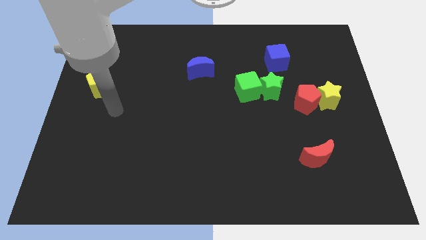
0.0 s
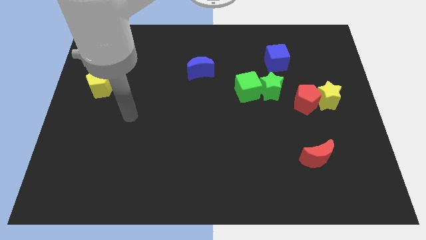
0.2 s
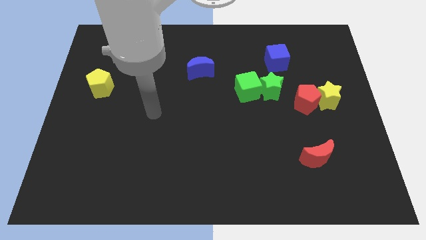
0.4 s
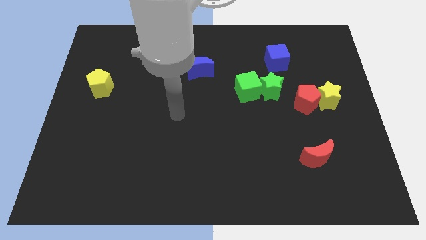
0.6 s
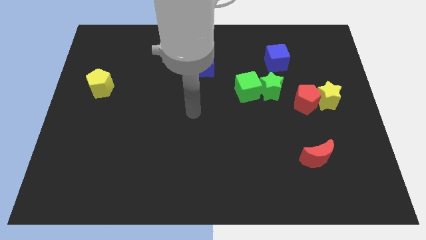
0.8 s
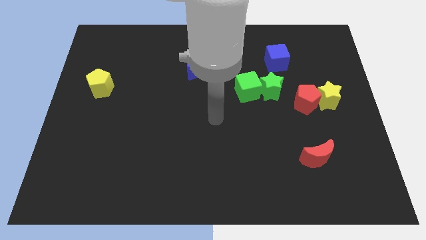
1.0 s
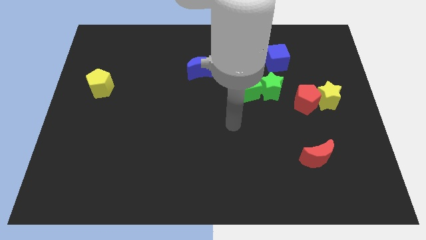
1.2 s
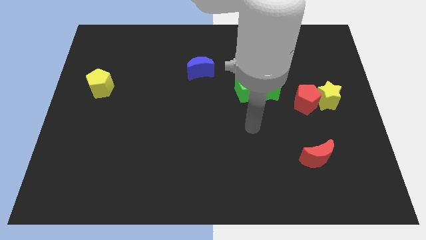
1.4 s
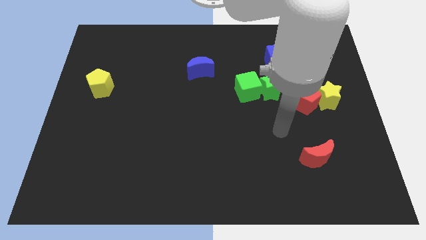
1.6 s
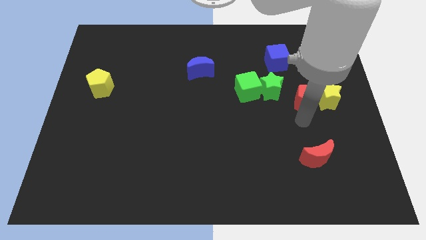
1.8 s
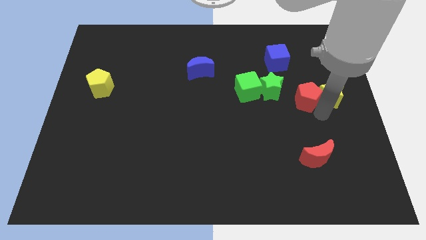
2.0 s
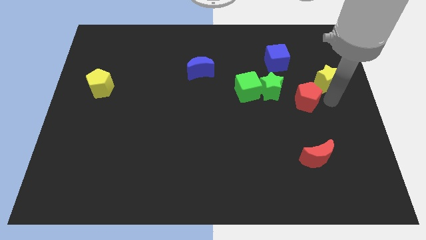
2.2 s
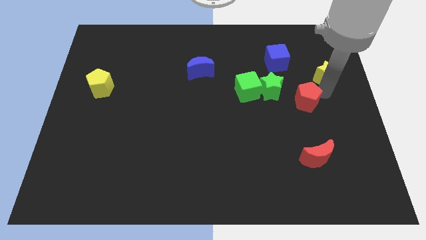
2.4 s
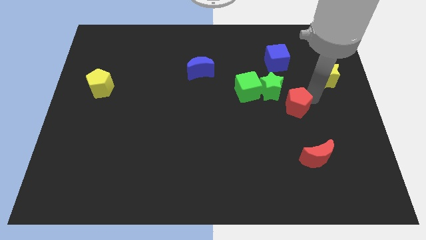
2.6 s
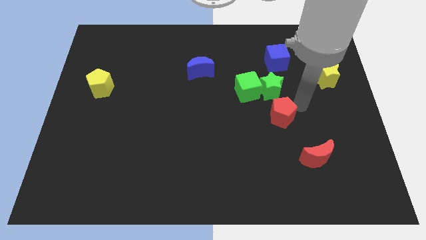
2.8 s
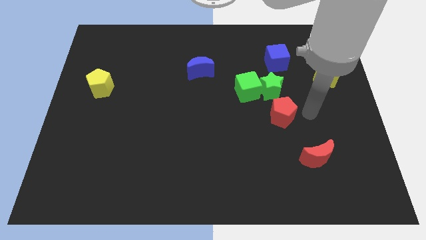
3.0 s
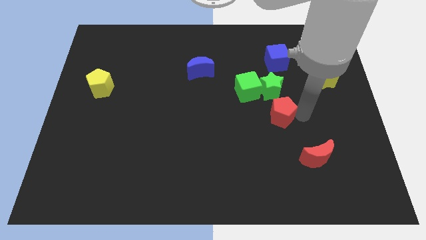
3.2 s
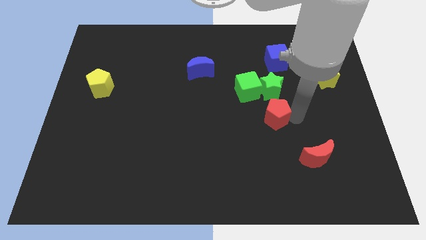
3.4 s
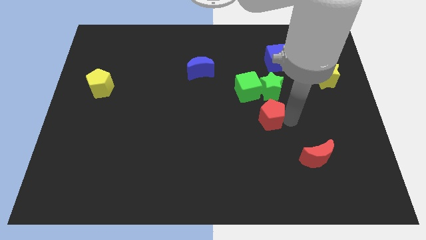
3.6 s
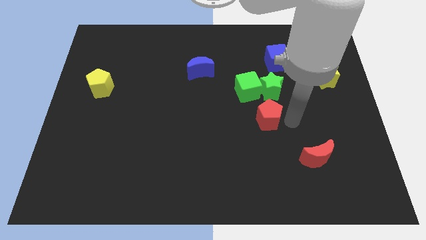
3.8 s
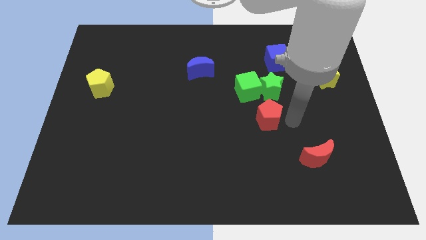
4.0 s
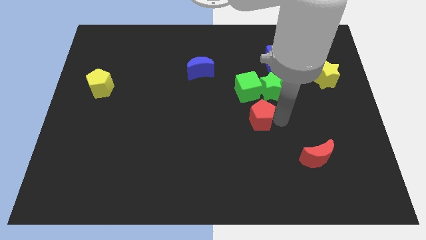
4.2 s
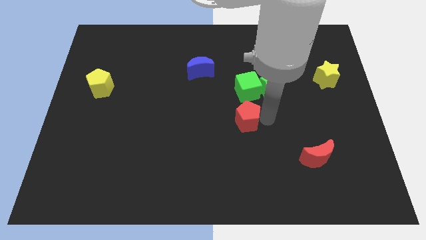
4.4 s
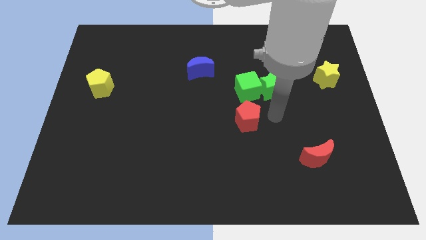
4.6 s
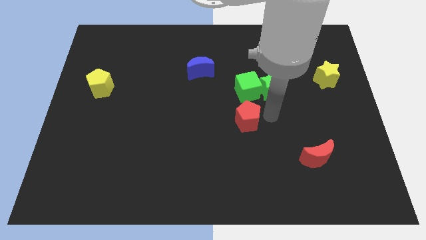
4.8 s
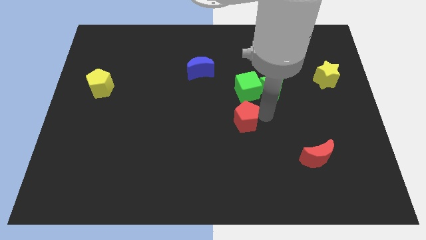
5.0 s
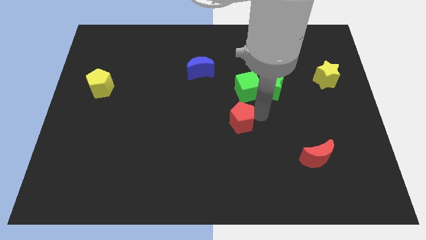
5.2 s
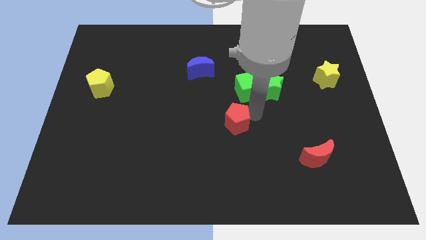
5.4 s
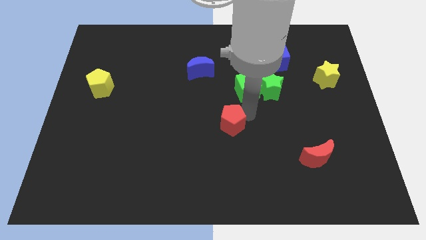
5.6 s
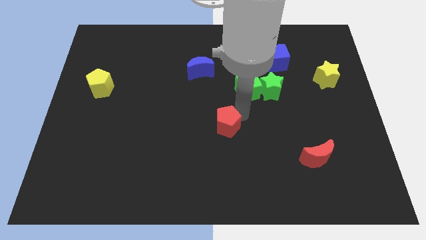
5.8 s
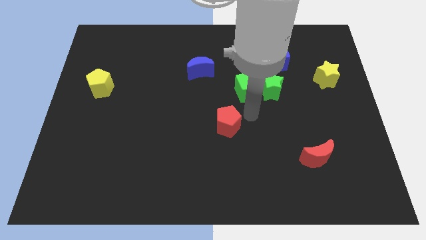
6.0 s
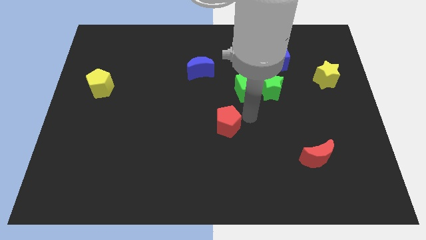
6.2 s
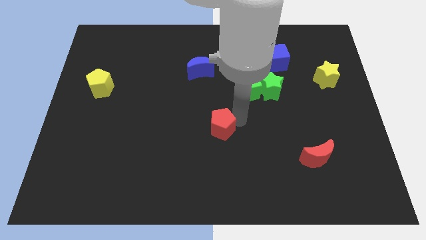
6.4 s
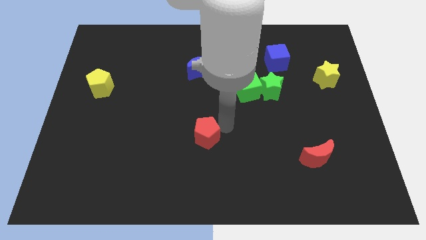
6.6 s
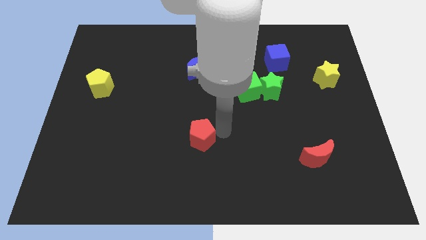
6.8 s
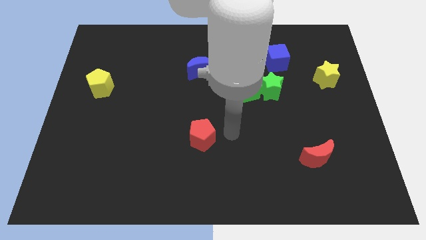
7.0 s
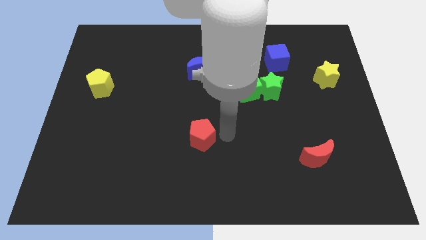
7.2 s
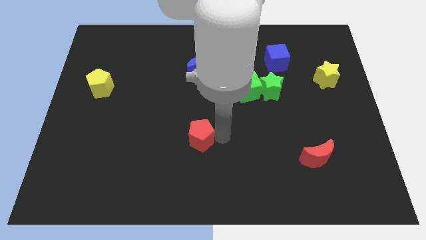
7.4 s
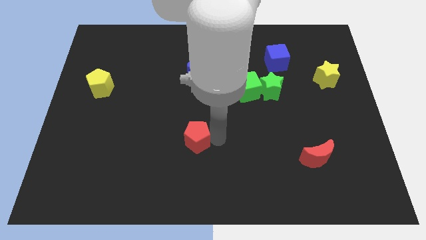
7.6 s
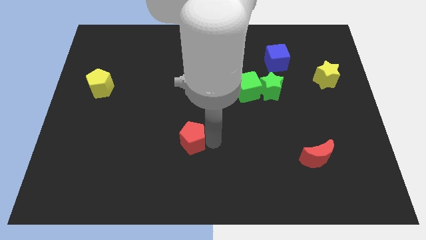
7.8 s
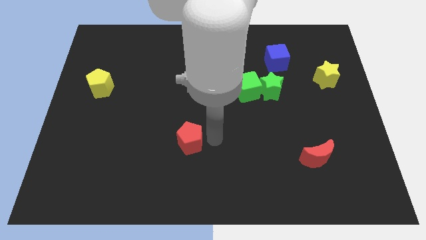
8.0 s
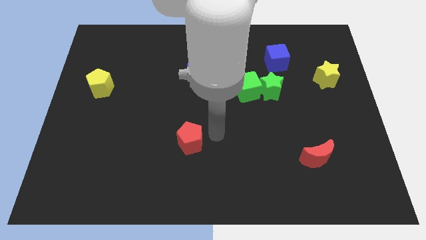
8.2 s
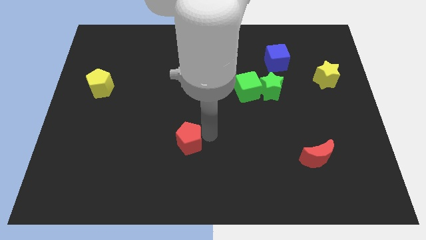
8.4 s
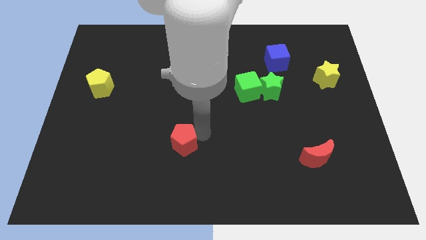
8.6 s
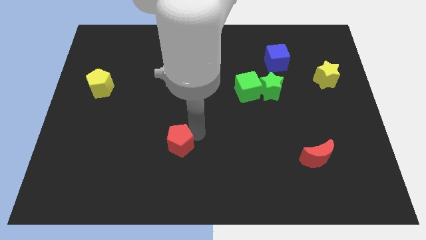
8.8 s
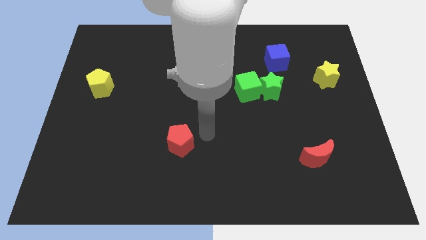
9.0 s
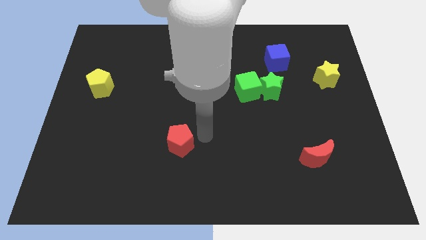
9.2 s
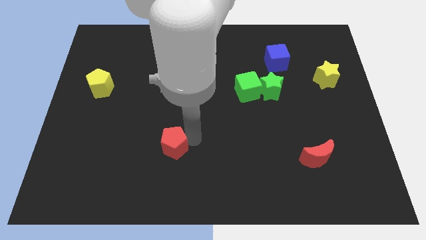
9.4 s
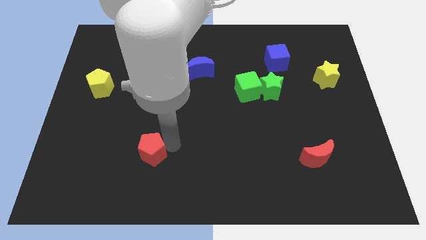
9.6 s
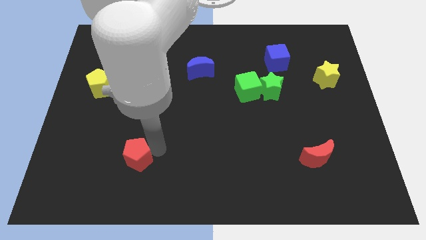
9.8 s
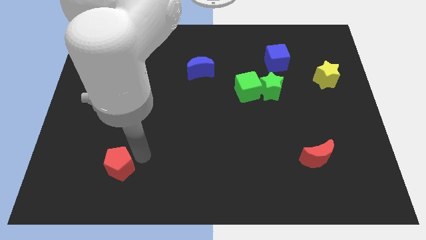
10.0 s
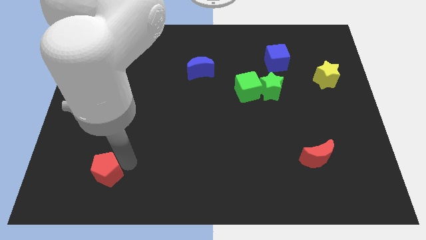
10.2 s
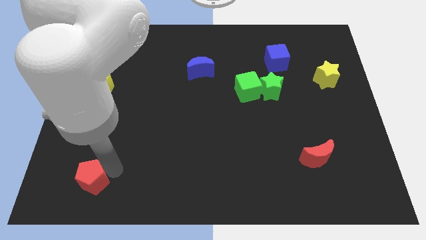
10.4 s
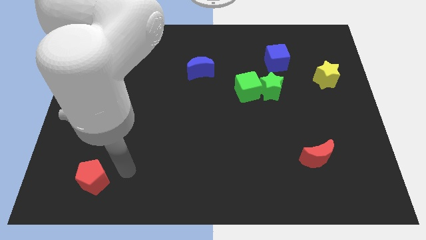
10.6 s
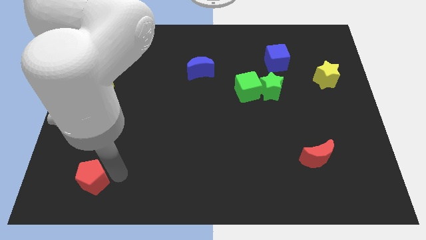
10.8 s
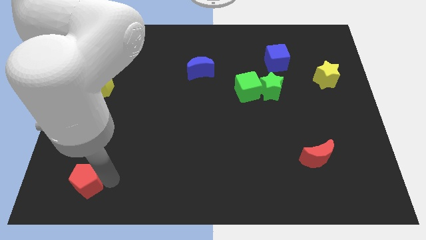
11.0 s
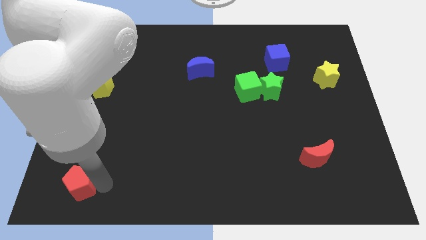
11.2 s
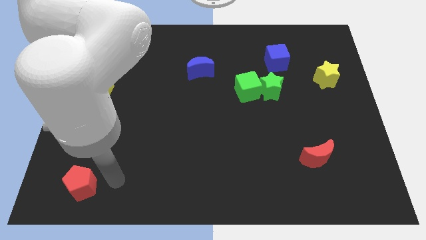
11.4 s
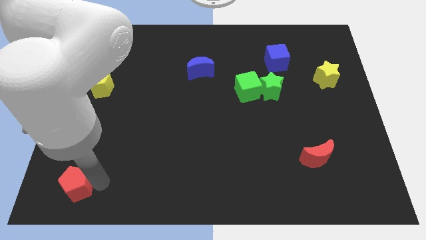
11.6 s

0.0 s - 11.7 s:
move the red pentagon to the lower left corner

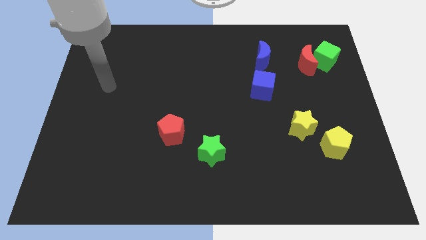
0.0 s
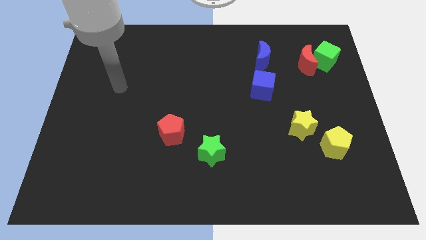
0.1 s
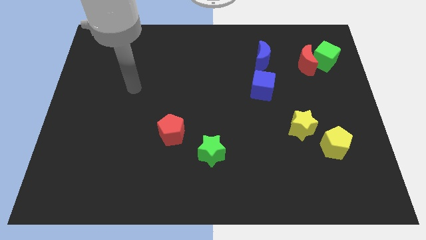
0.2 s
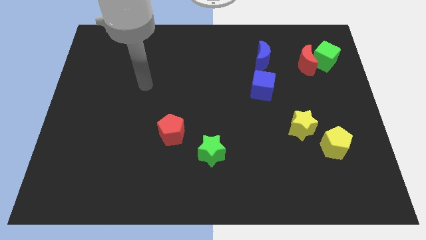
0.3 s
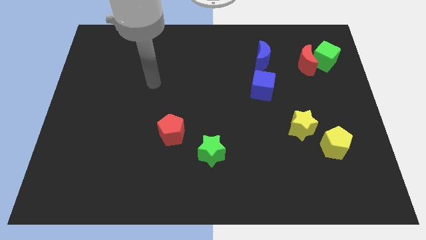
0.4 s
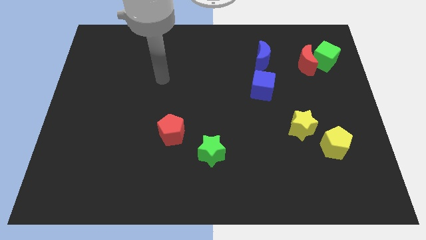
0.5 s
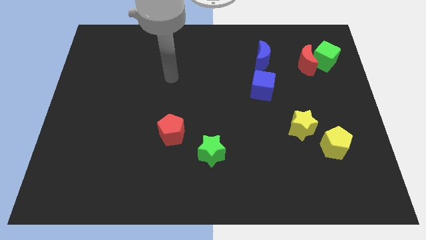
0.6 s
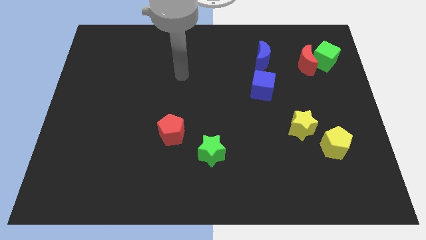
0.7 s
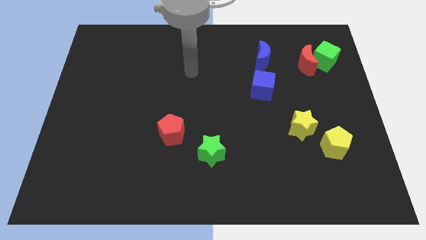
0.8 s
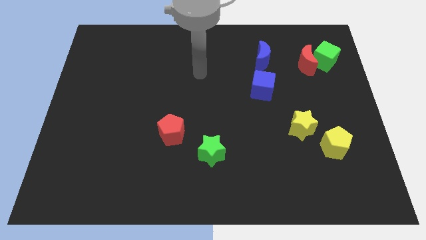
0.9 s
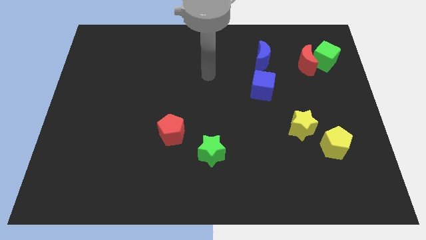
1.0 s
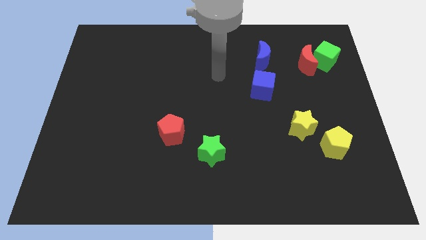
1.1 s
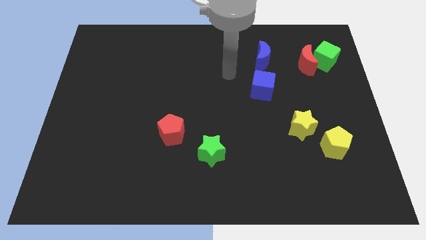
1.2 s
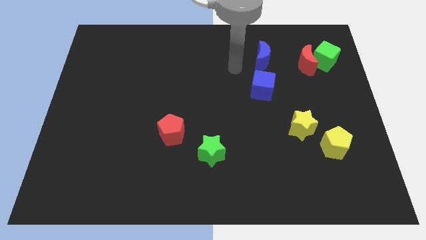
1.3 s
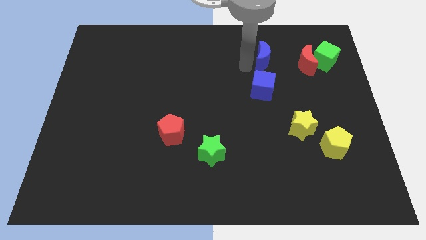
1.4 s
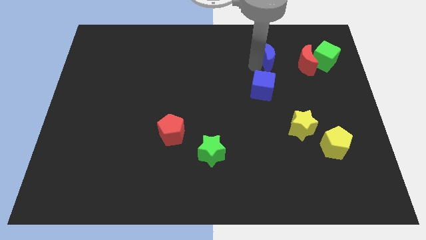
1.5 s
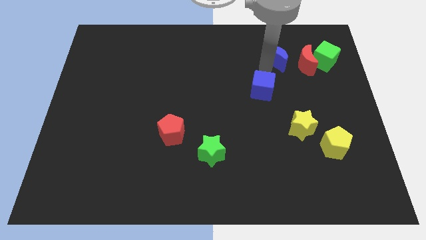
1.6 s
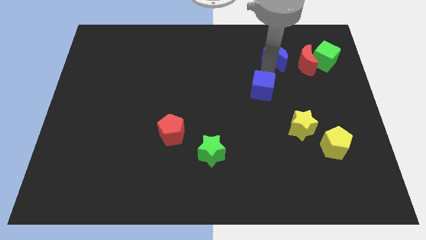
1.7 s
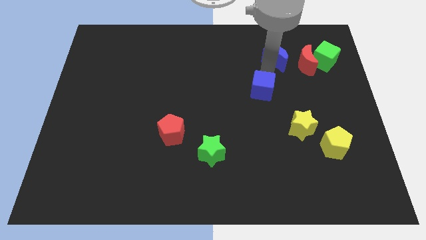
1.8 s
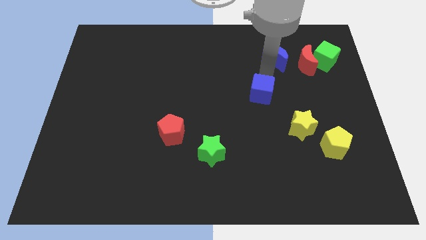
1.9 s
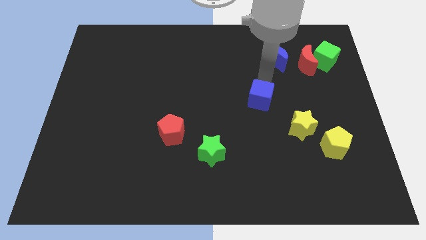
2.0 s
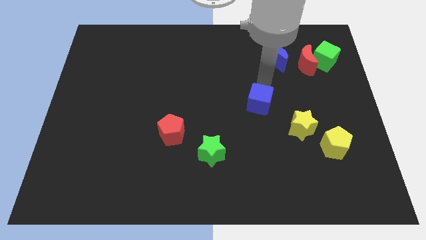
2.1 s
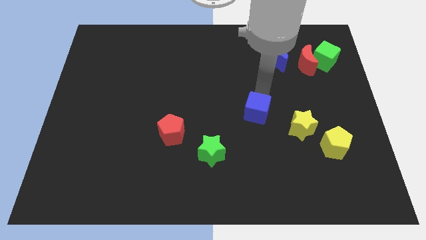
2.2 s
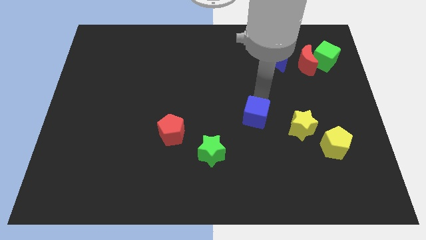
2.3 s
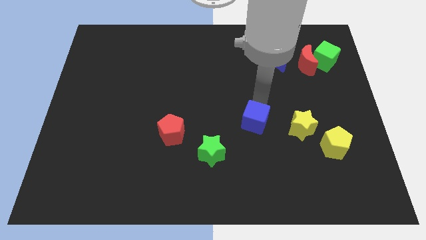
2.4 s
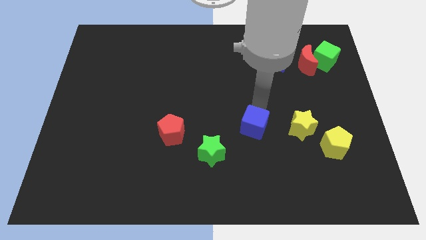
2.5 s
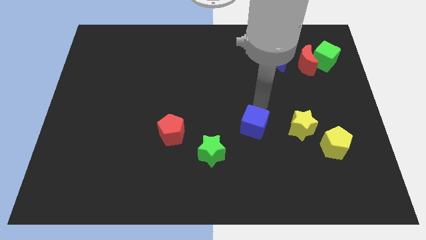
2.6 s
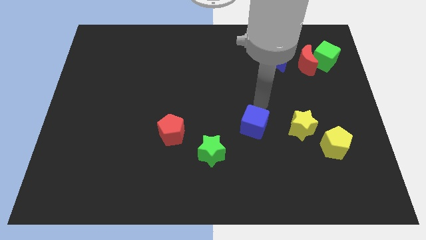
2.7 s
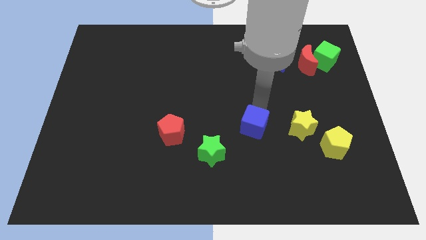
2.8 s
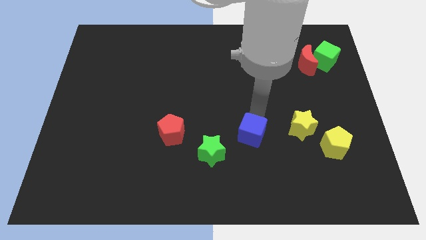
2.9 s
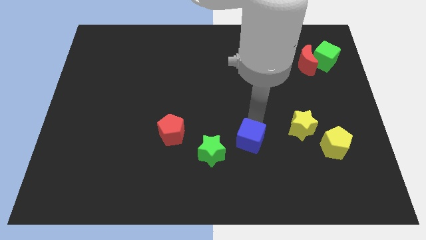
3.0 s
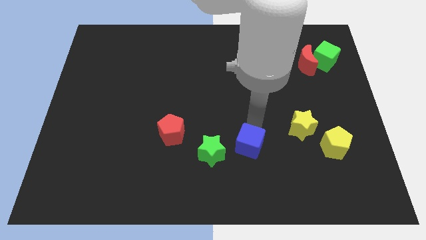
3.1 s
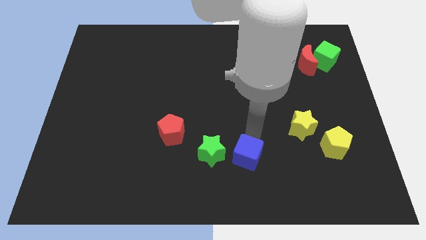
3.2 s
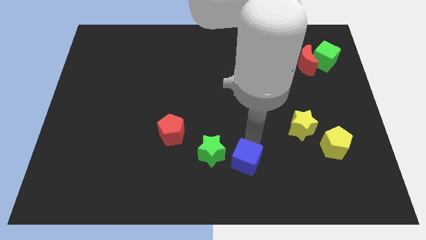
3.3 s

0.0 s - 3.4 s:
slide the blue cube to the bottom side
